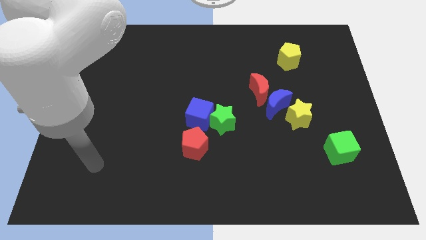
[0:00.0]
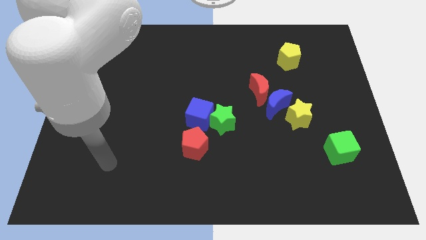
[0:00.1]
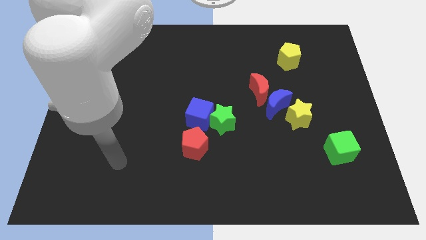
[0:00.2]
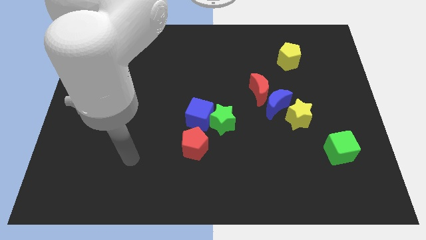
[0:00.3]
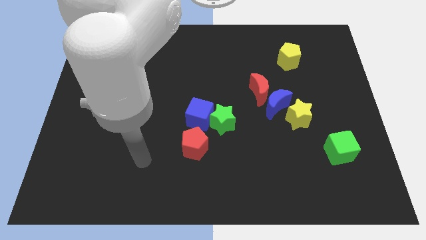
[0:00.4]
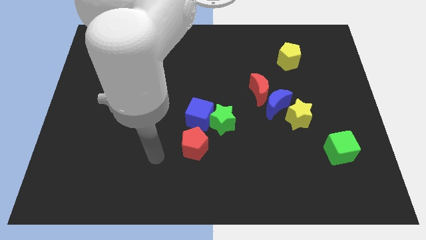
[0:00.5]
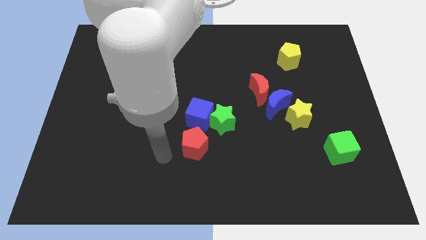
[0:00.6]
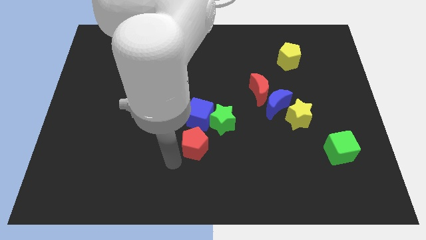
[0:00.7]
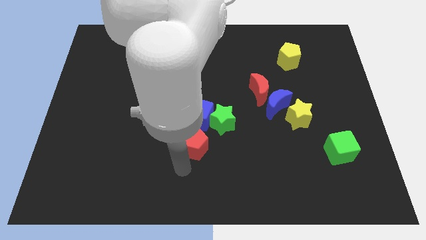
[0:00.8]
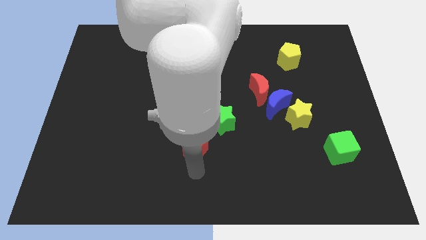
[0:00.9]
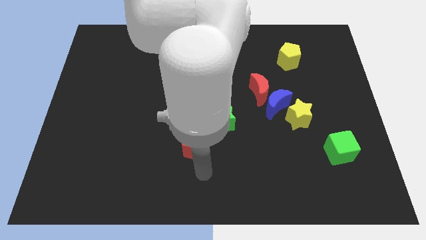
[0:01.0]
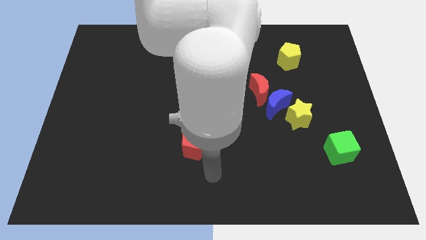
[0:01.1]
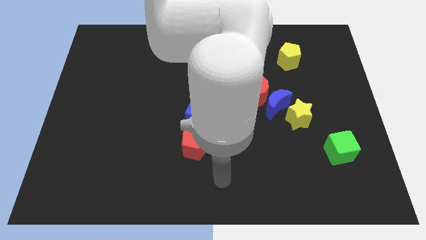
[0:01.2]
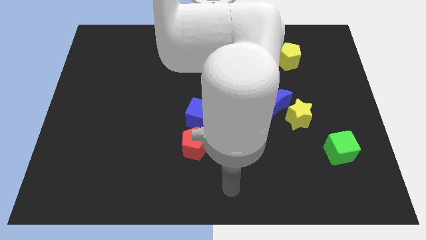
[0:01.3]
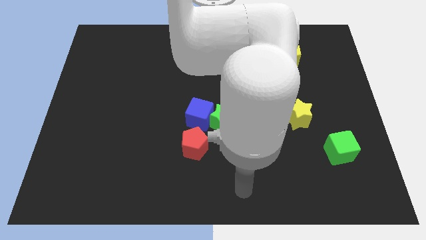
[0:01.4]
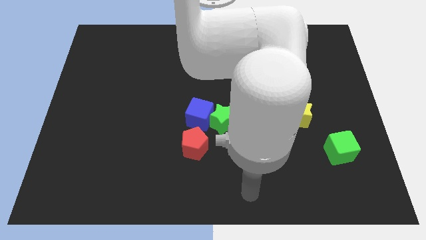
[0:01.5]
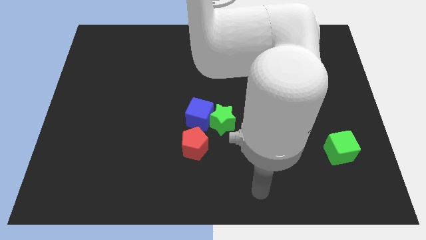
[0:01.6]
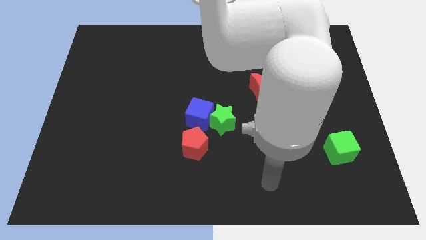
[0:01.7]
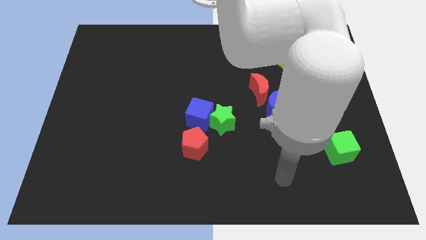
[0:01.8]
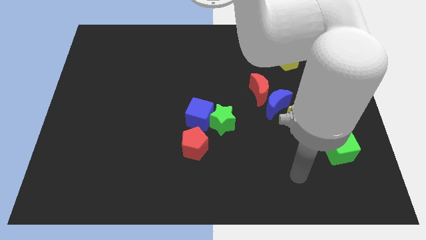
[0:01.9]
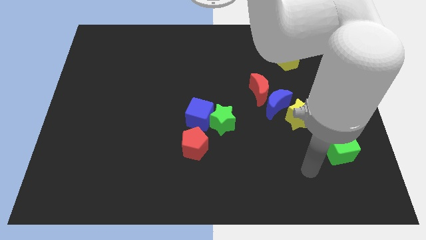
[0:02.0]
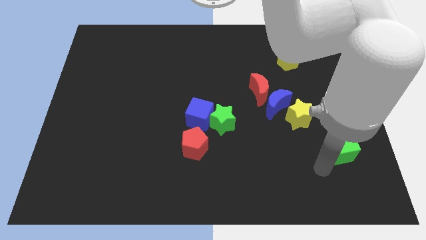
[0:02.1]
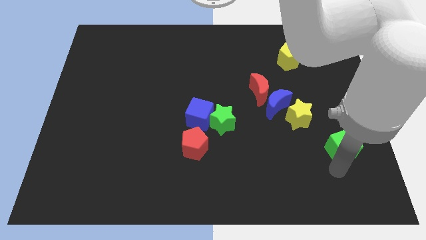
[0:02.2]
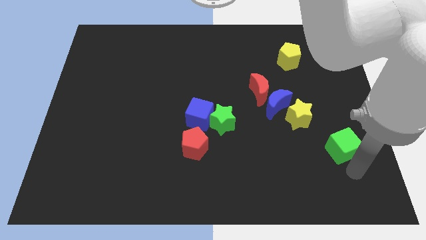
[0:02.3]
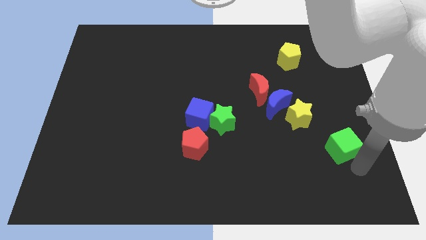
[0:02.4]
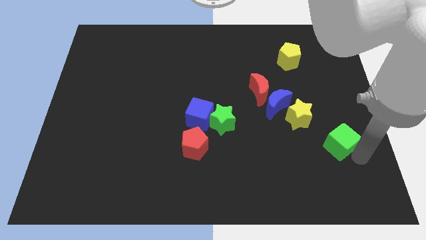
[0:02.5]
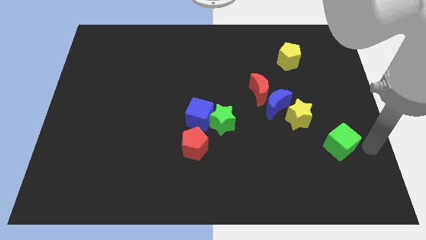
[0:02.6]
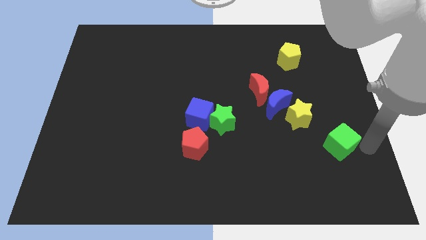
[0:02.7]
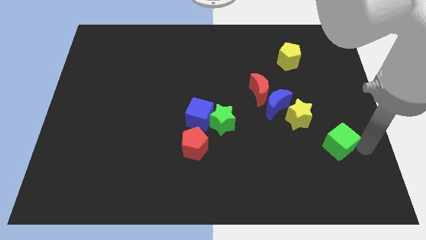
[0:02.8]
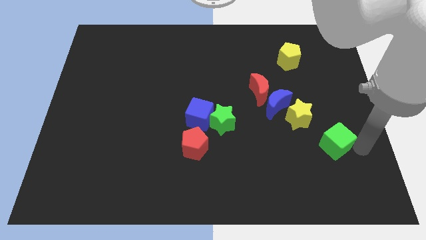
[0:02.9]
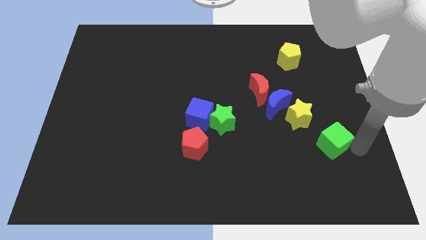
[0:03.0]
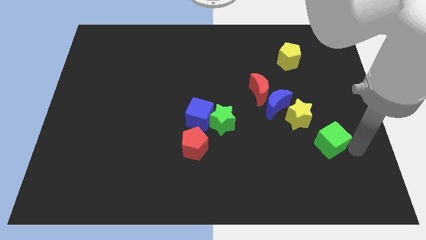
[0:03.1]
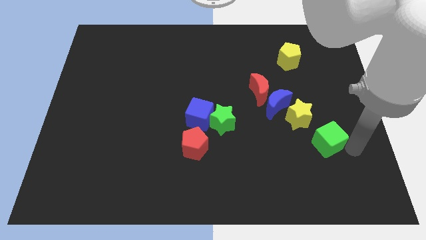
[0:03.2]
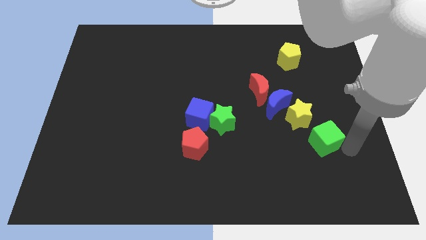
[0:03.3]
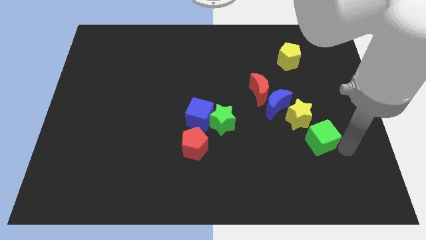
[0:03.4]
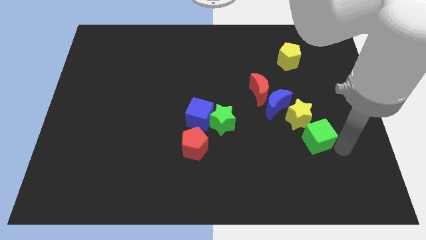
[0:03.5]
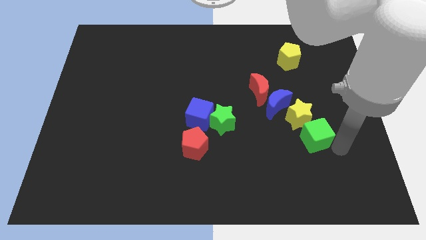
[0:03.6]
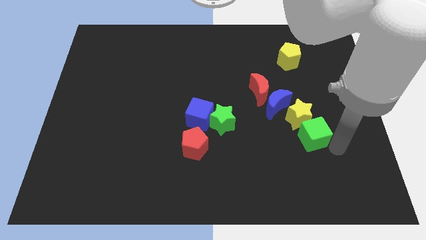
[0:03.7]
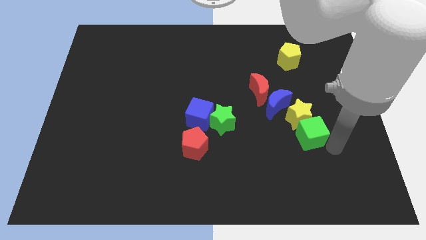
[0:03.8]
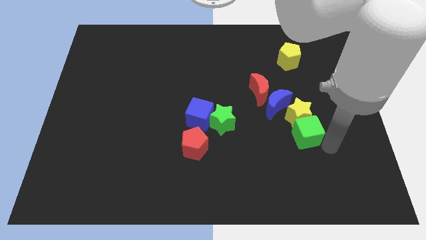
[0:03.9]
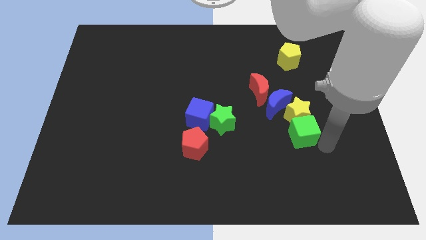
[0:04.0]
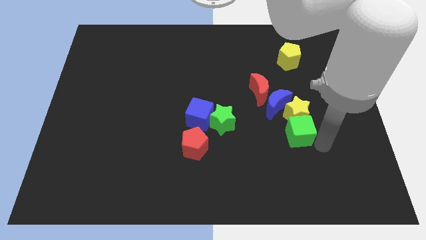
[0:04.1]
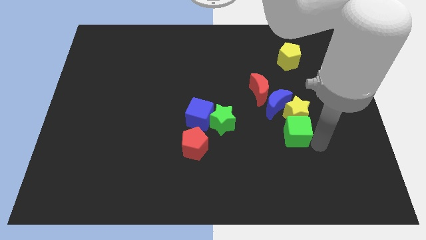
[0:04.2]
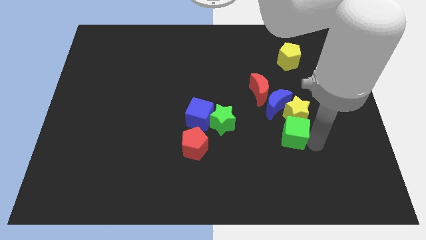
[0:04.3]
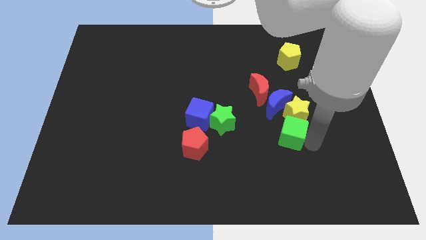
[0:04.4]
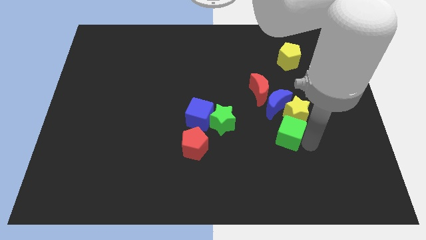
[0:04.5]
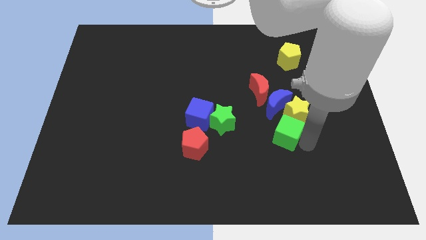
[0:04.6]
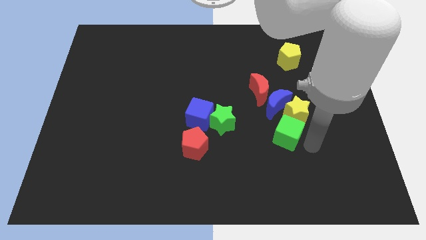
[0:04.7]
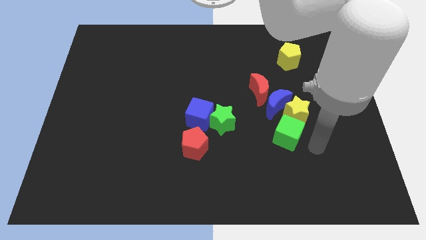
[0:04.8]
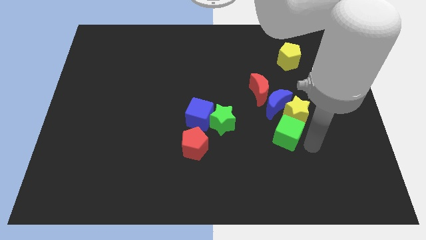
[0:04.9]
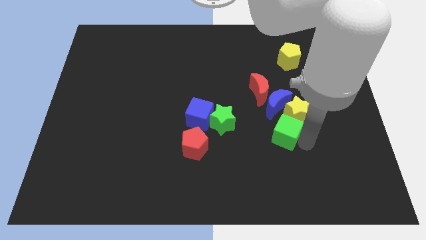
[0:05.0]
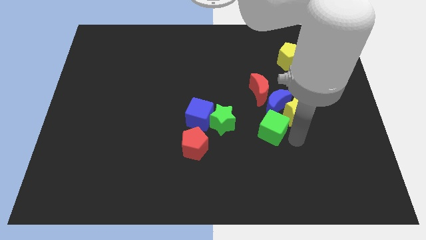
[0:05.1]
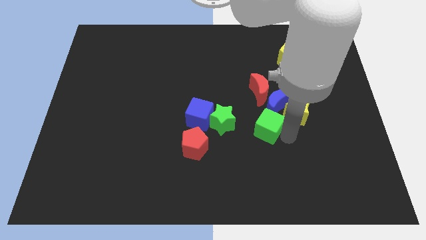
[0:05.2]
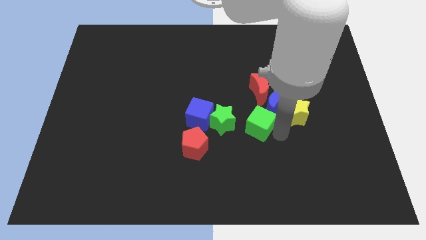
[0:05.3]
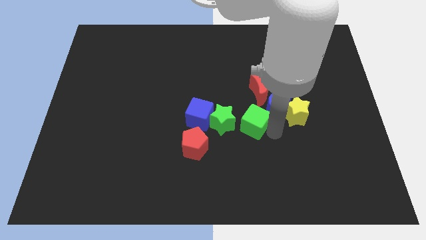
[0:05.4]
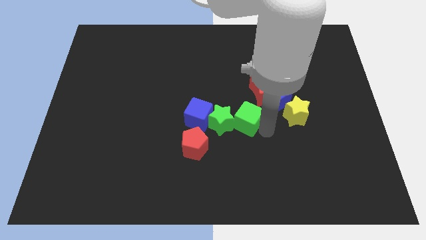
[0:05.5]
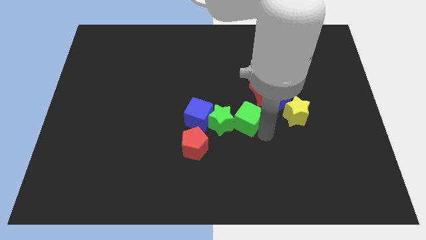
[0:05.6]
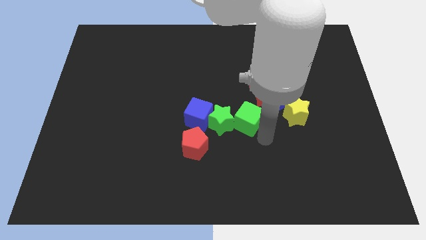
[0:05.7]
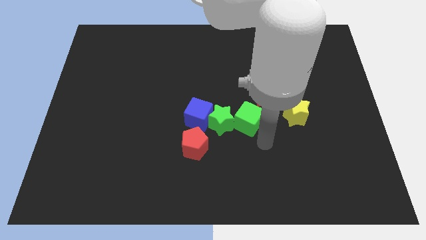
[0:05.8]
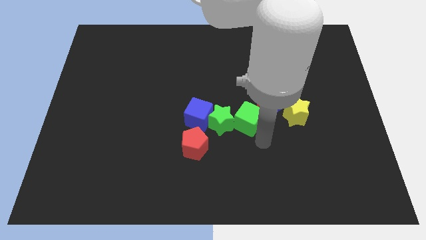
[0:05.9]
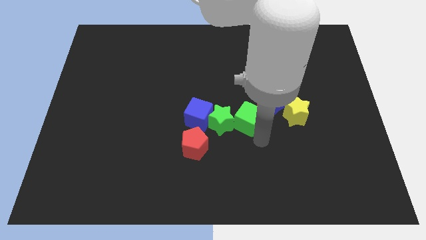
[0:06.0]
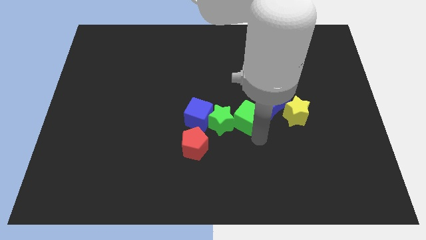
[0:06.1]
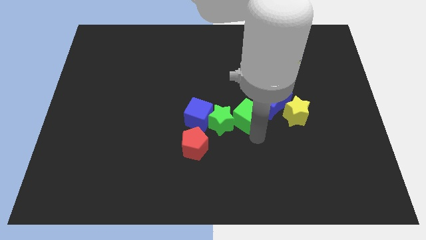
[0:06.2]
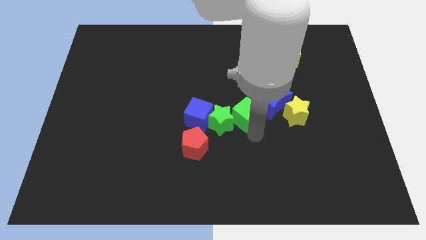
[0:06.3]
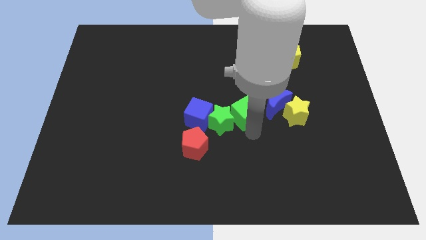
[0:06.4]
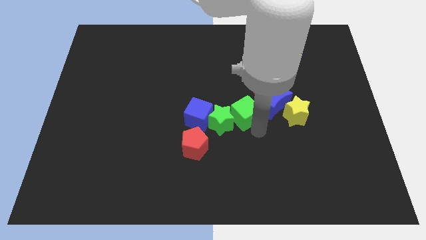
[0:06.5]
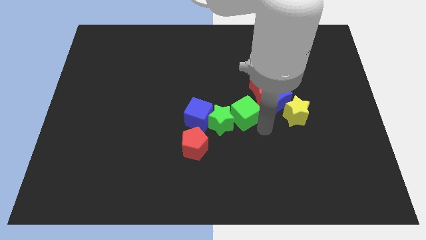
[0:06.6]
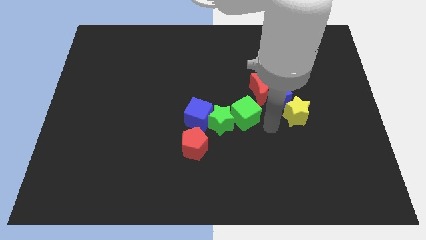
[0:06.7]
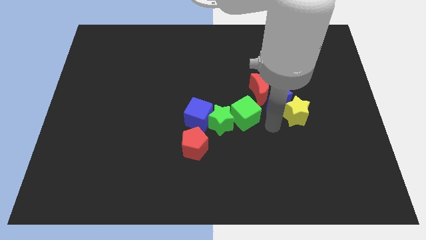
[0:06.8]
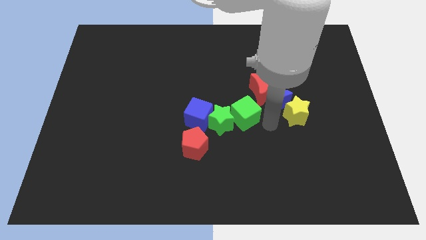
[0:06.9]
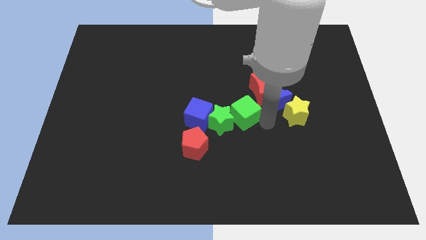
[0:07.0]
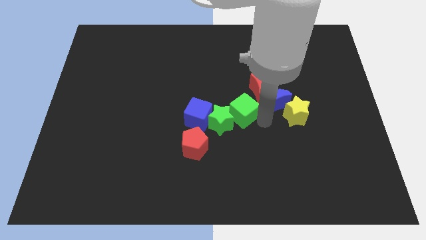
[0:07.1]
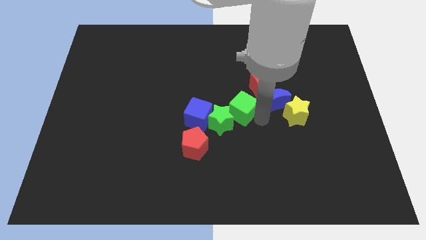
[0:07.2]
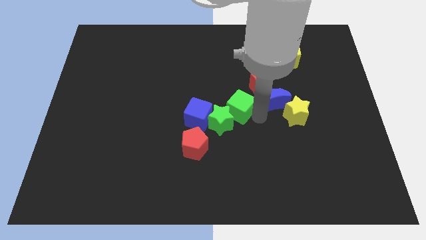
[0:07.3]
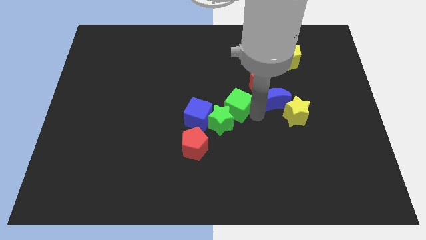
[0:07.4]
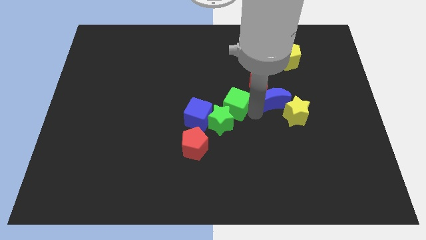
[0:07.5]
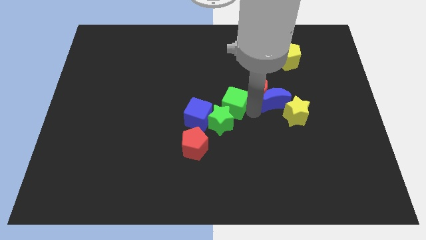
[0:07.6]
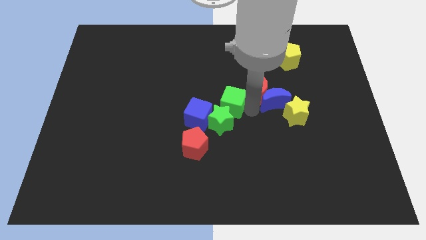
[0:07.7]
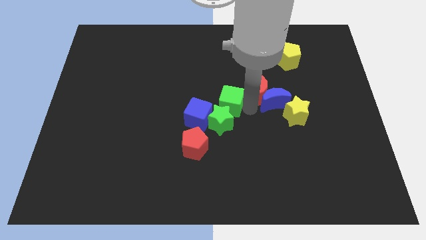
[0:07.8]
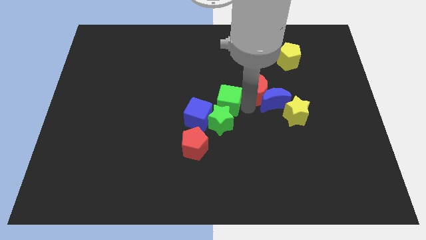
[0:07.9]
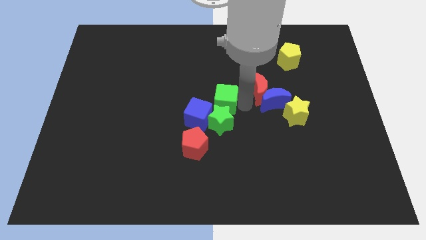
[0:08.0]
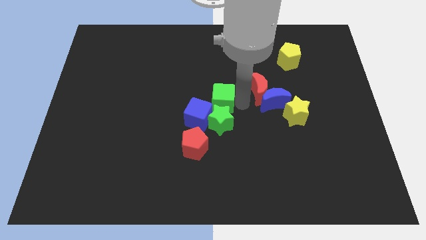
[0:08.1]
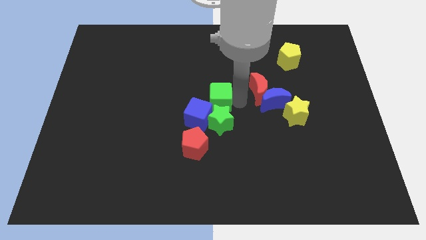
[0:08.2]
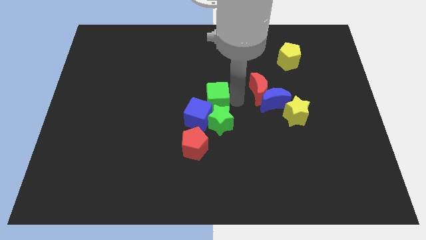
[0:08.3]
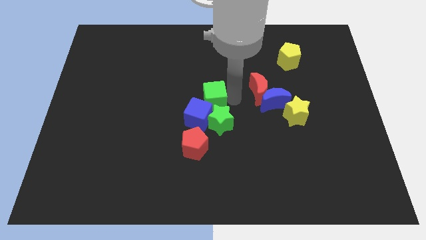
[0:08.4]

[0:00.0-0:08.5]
slide the green cube to the top side of the red pentagon
